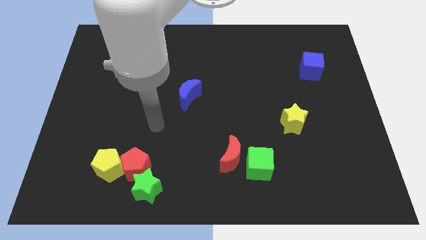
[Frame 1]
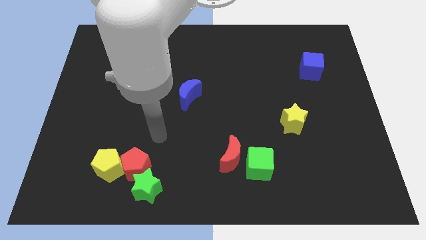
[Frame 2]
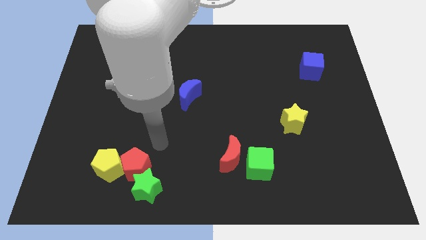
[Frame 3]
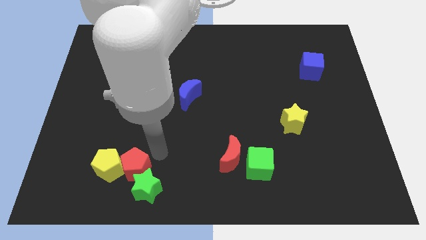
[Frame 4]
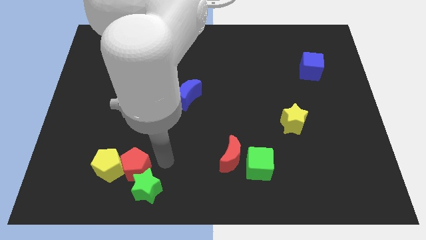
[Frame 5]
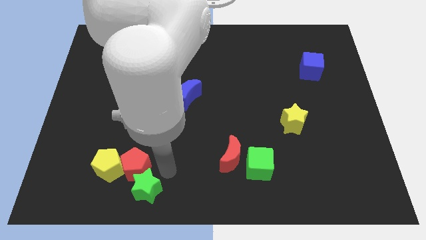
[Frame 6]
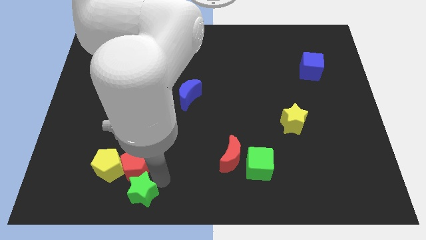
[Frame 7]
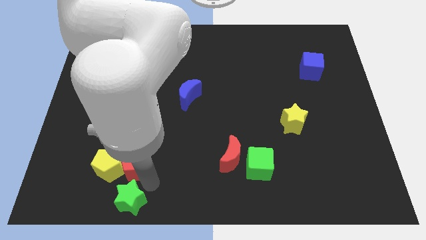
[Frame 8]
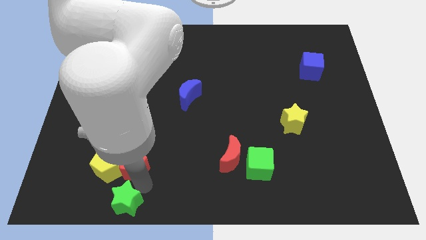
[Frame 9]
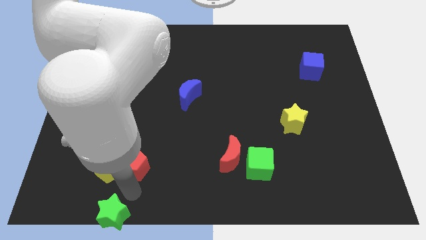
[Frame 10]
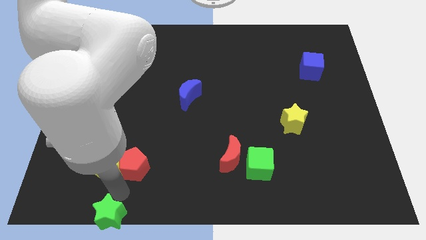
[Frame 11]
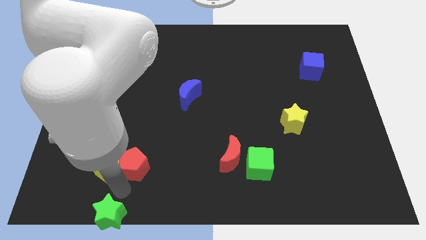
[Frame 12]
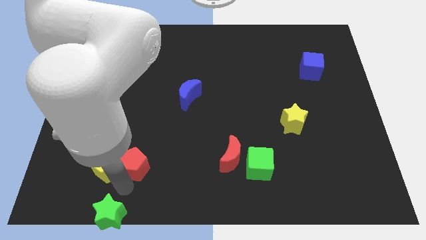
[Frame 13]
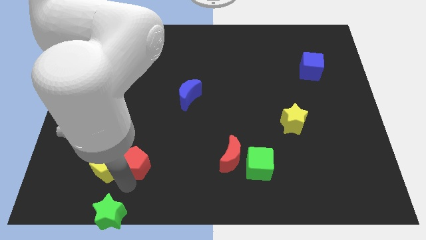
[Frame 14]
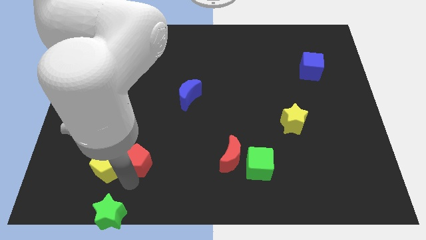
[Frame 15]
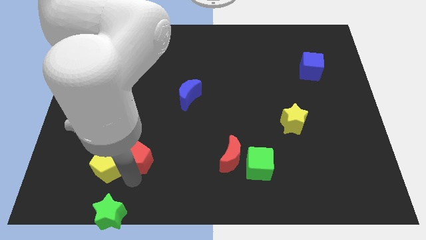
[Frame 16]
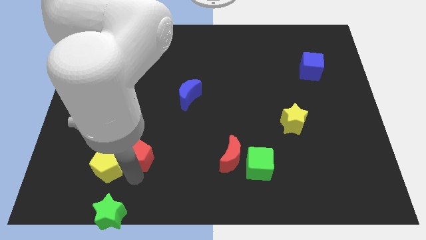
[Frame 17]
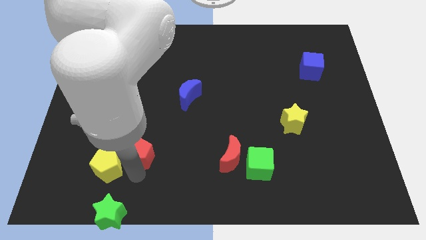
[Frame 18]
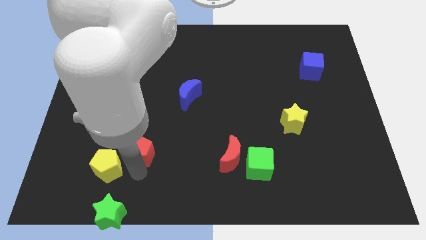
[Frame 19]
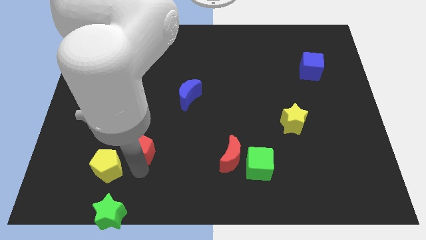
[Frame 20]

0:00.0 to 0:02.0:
move the red pentagon away from the green star and yellow pentagon

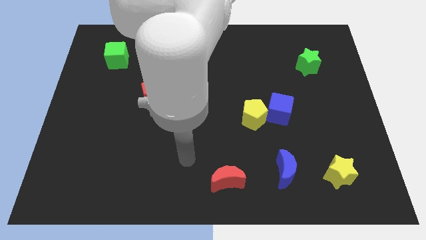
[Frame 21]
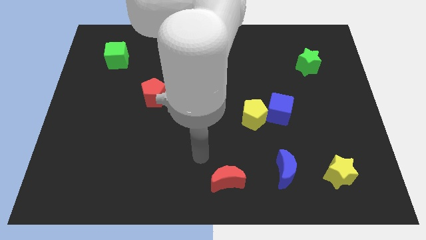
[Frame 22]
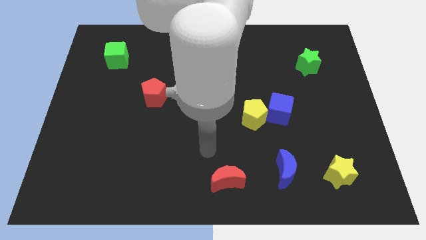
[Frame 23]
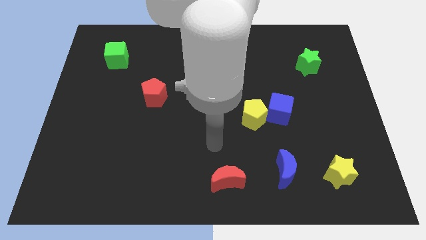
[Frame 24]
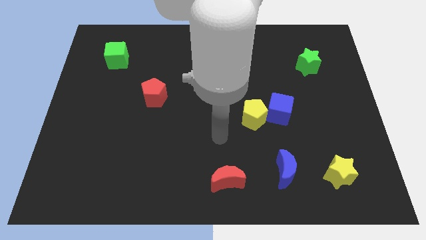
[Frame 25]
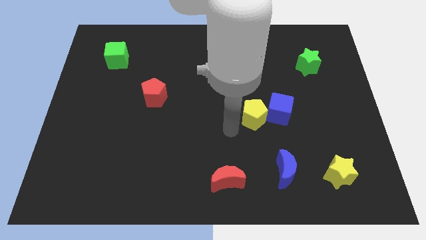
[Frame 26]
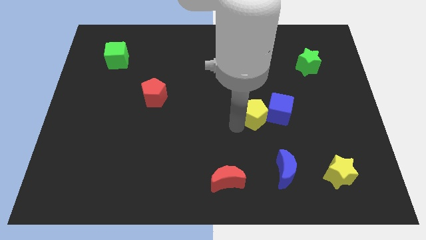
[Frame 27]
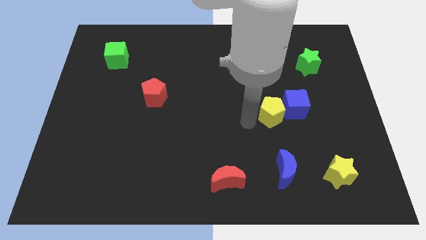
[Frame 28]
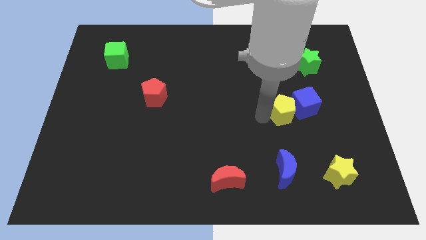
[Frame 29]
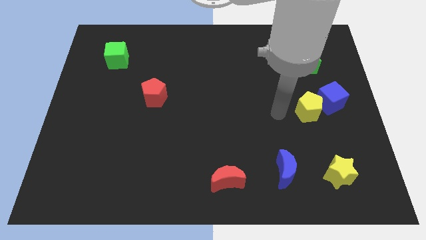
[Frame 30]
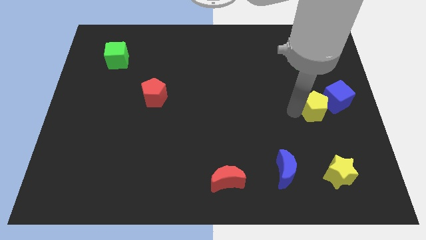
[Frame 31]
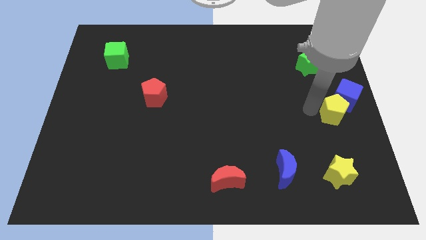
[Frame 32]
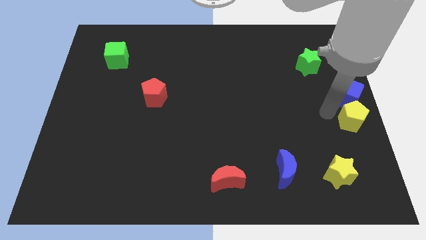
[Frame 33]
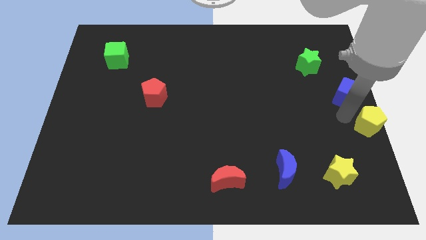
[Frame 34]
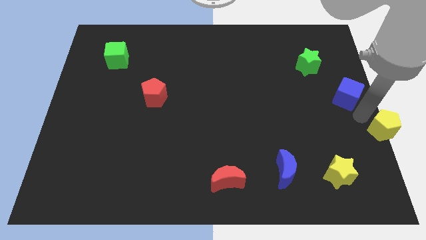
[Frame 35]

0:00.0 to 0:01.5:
move the blue cube away from the yellow pentagon

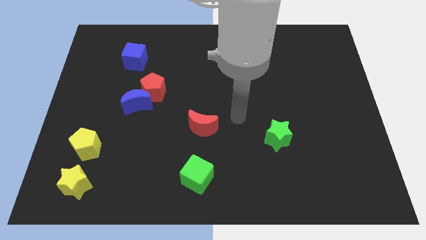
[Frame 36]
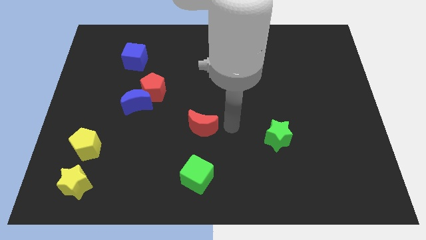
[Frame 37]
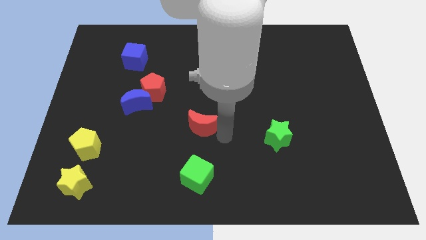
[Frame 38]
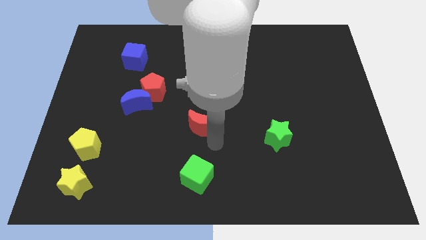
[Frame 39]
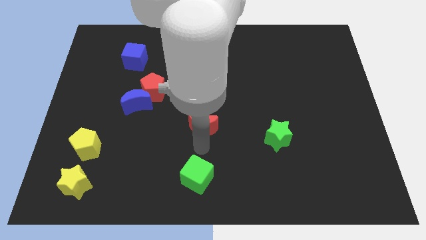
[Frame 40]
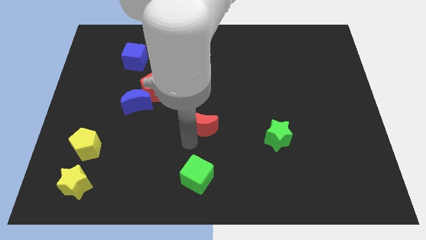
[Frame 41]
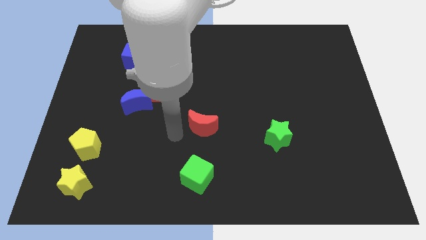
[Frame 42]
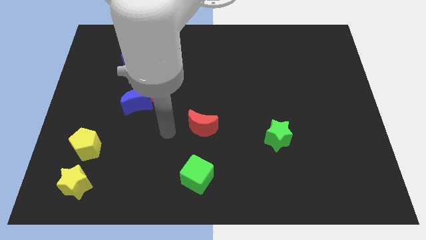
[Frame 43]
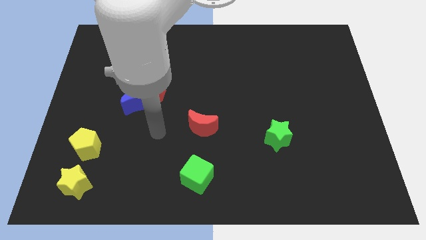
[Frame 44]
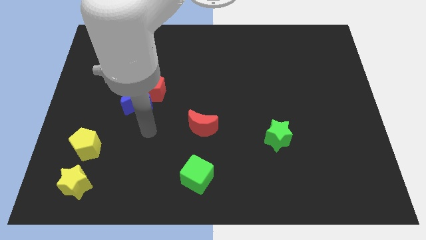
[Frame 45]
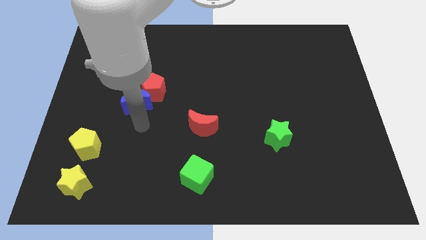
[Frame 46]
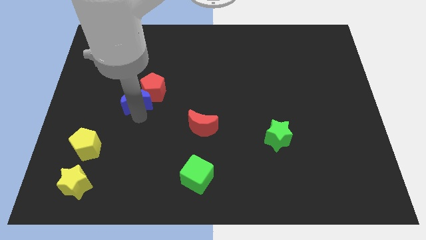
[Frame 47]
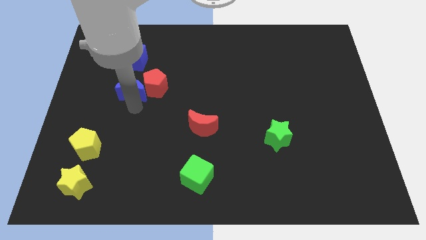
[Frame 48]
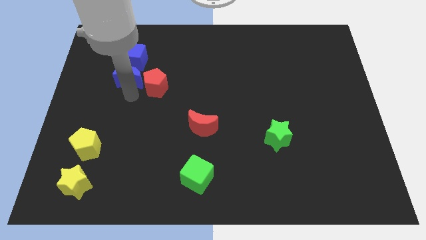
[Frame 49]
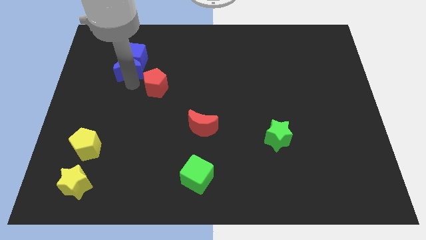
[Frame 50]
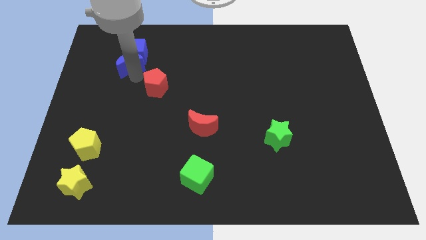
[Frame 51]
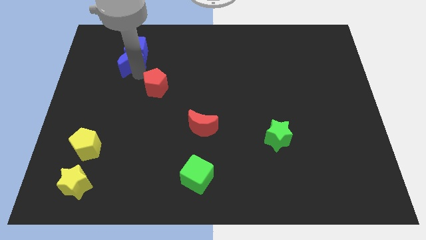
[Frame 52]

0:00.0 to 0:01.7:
separate the red pentagon from the blue moon

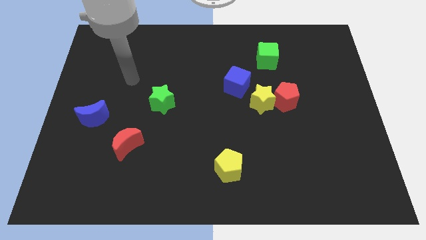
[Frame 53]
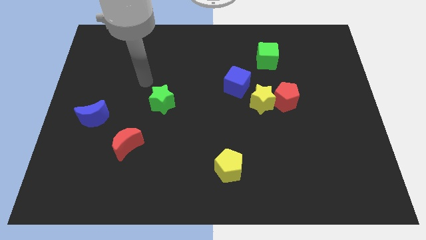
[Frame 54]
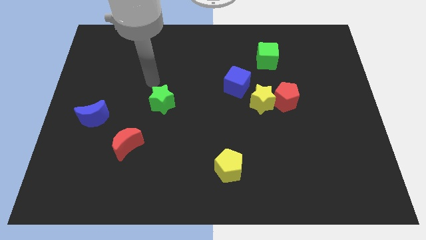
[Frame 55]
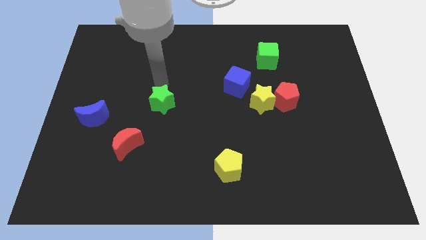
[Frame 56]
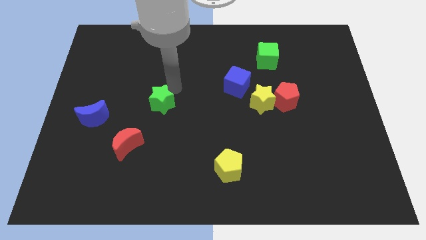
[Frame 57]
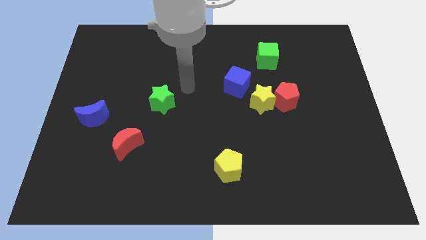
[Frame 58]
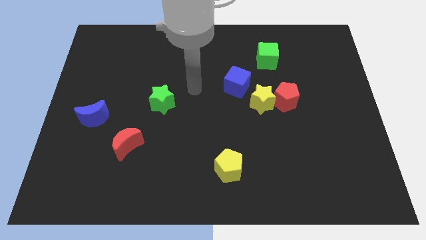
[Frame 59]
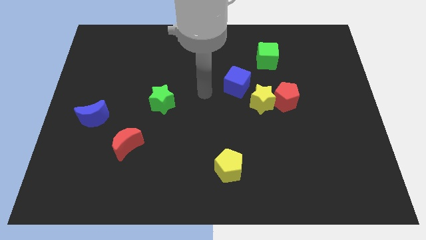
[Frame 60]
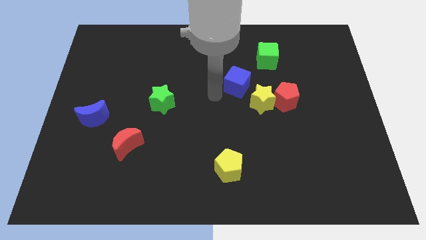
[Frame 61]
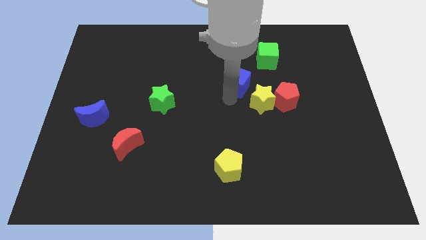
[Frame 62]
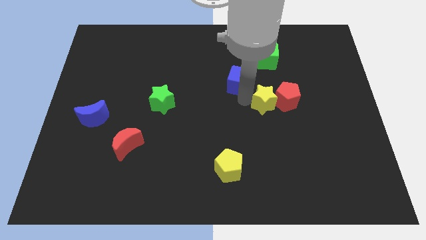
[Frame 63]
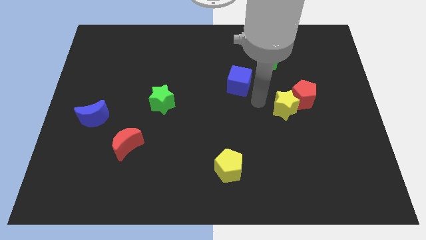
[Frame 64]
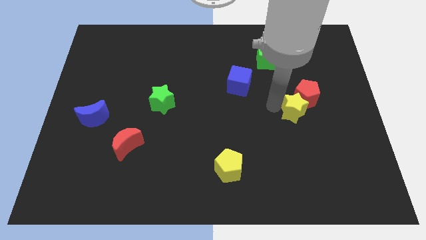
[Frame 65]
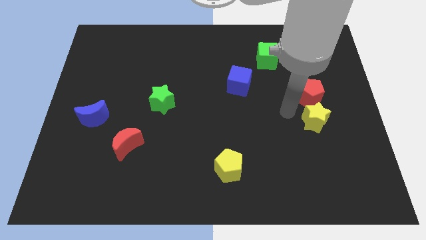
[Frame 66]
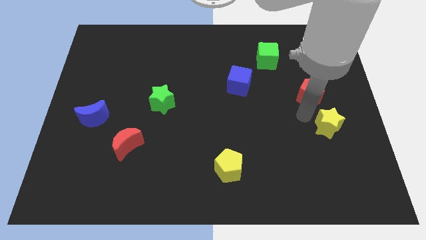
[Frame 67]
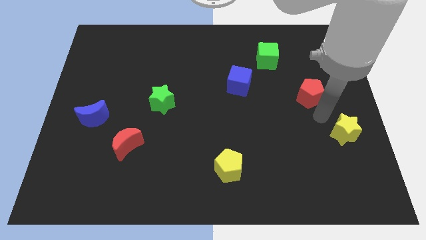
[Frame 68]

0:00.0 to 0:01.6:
separate the red pentagon from the yellow star

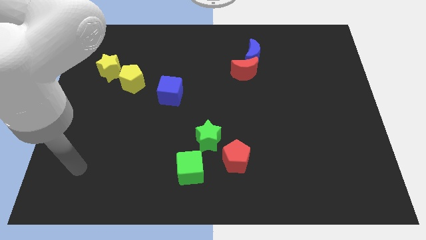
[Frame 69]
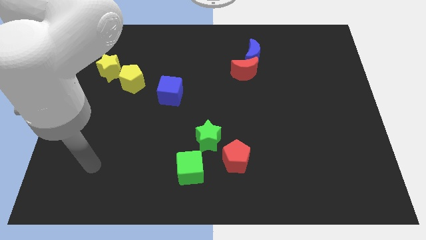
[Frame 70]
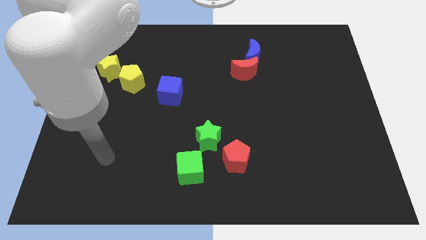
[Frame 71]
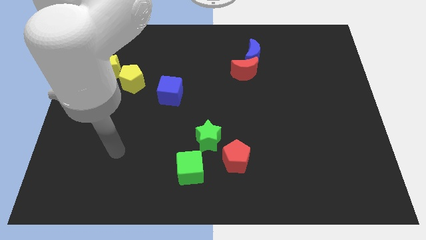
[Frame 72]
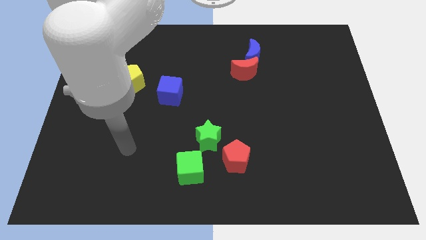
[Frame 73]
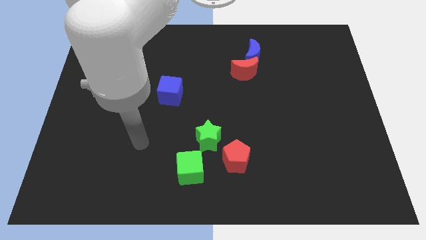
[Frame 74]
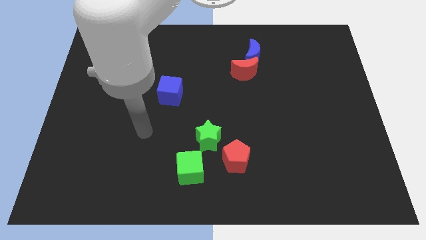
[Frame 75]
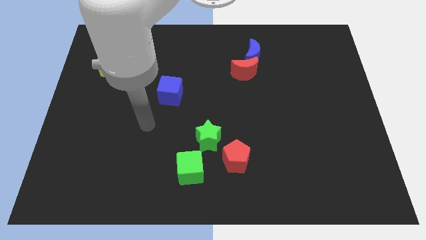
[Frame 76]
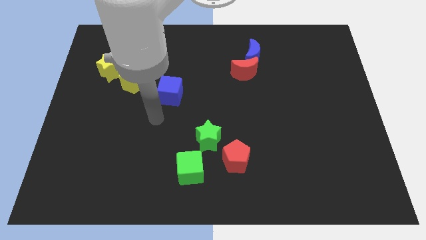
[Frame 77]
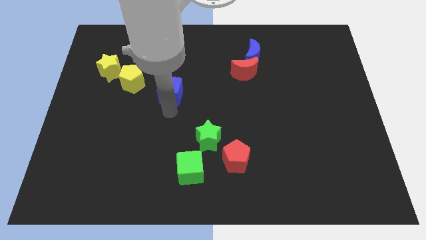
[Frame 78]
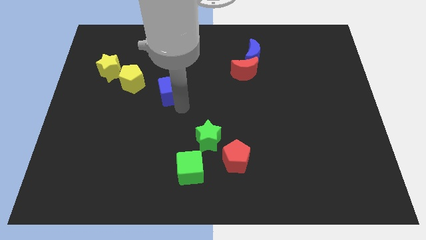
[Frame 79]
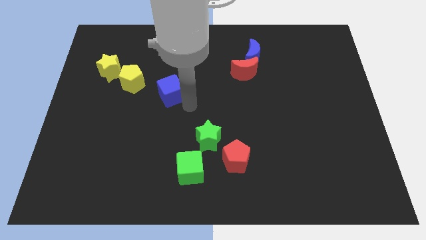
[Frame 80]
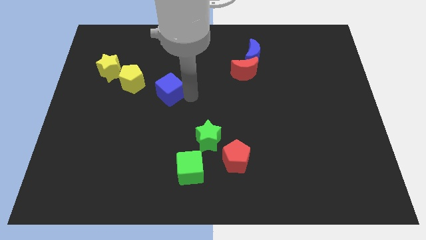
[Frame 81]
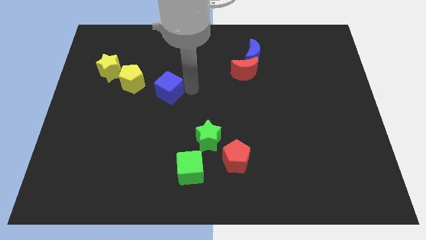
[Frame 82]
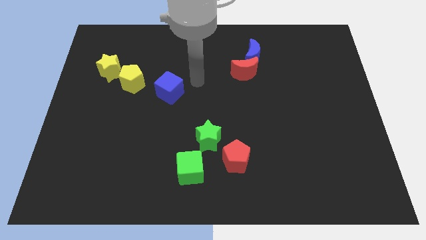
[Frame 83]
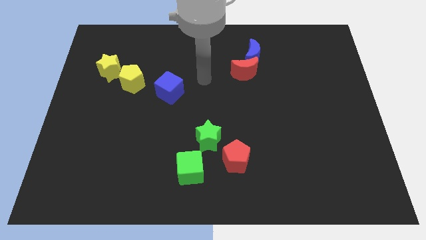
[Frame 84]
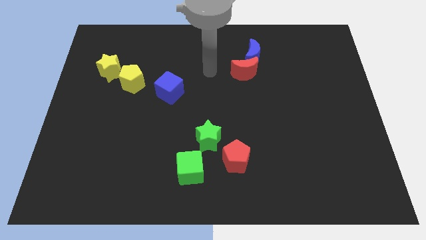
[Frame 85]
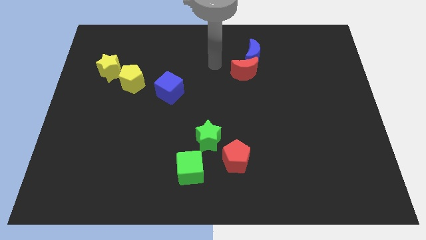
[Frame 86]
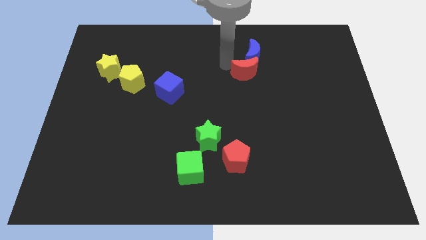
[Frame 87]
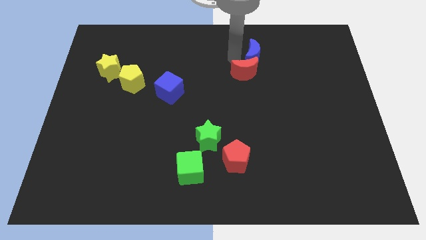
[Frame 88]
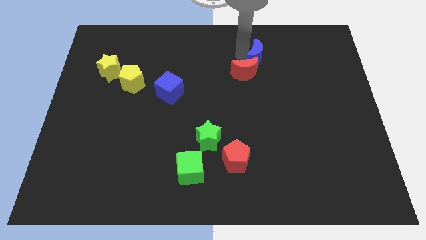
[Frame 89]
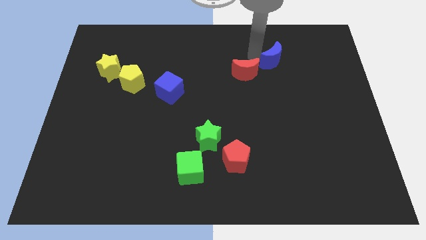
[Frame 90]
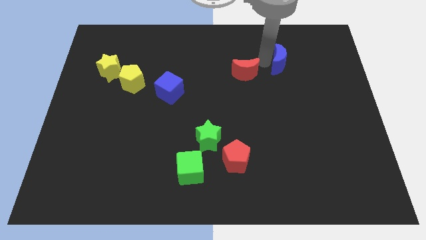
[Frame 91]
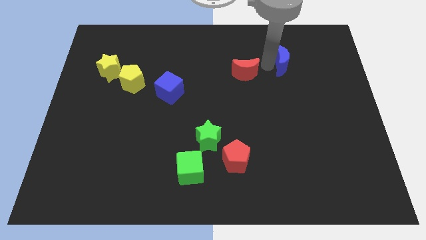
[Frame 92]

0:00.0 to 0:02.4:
move the red moon away from the blue moon

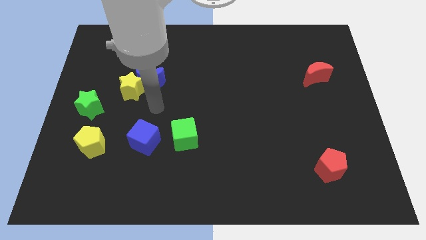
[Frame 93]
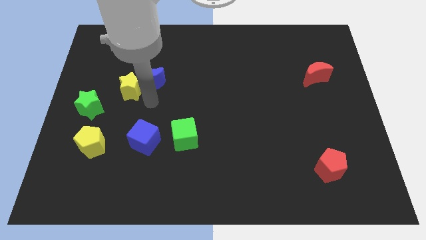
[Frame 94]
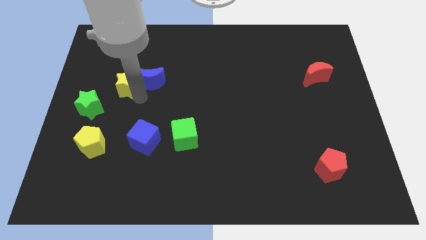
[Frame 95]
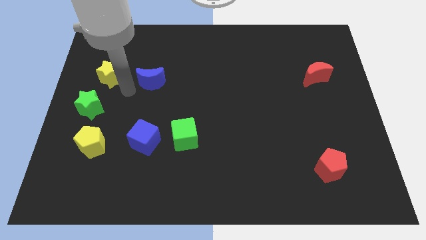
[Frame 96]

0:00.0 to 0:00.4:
separate the blue moon from the yellow star
